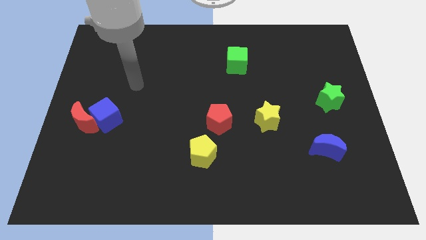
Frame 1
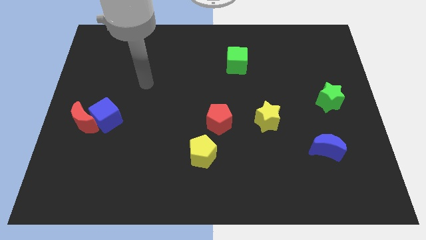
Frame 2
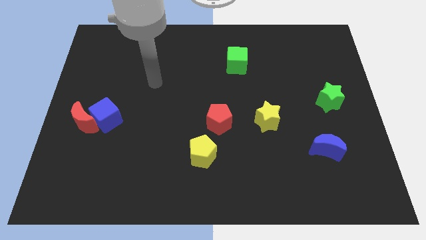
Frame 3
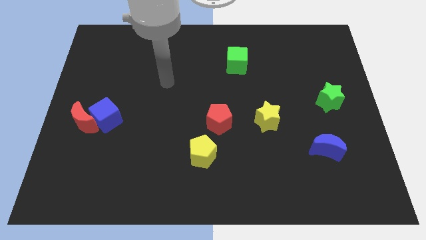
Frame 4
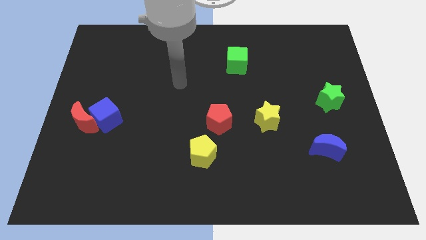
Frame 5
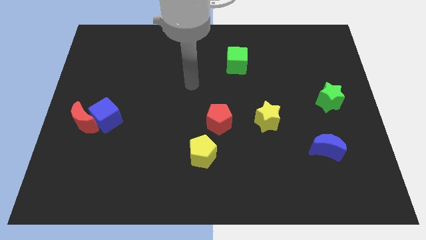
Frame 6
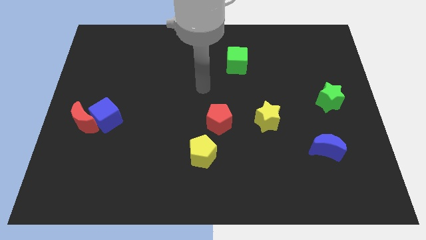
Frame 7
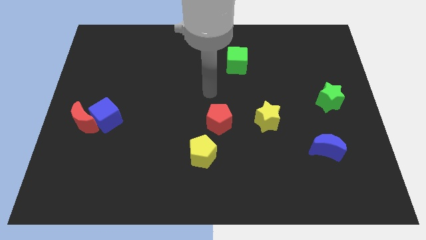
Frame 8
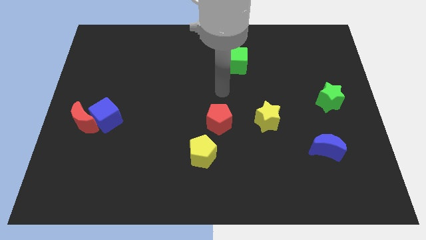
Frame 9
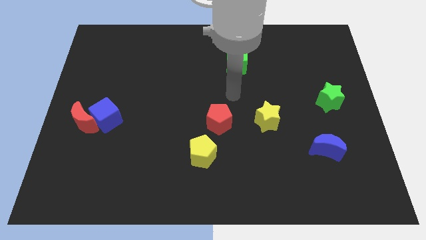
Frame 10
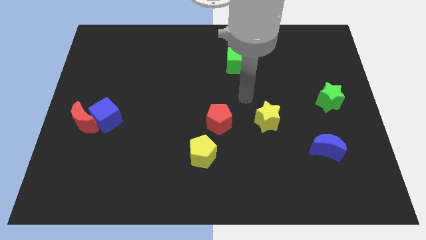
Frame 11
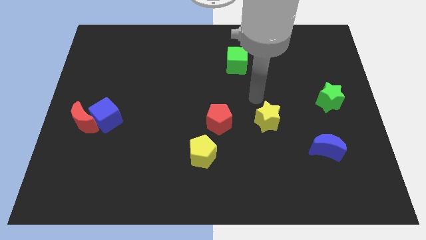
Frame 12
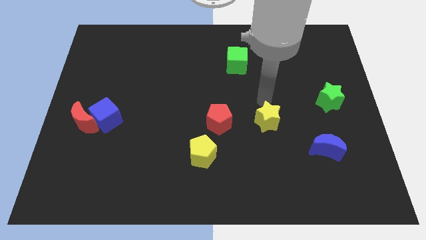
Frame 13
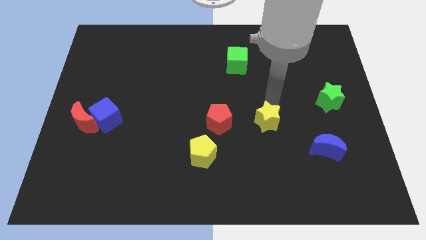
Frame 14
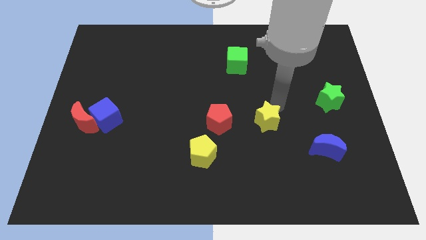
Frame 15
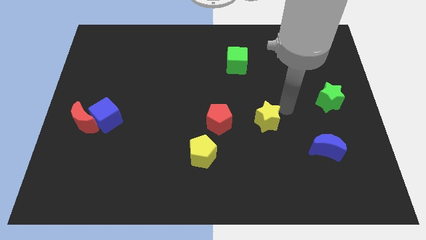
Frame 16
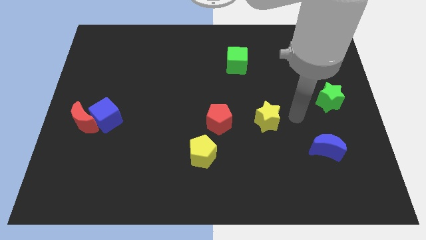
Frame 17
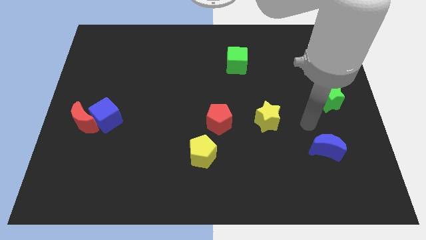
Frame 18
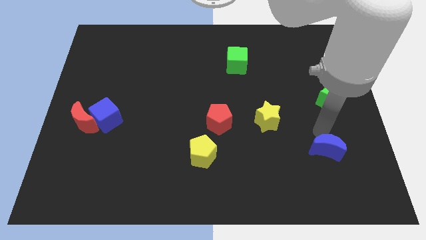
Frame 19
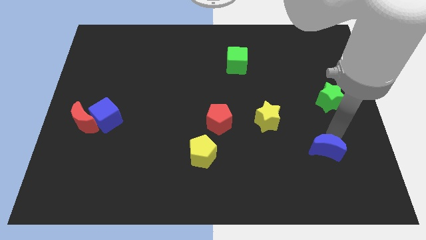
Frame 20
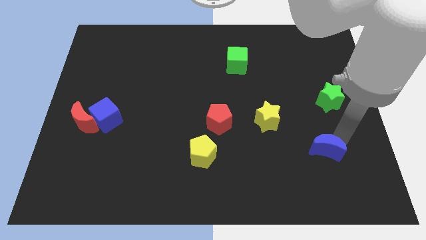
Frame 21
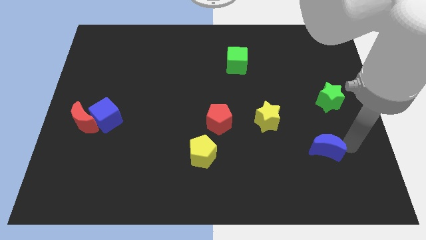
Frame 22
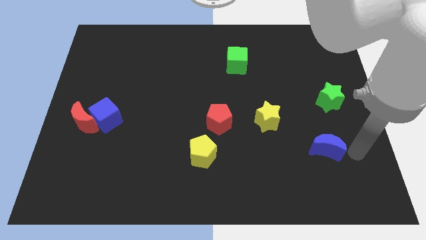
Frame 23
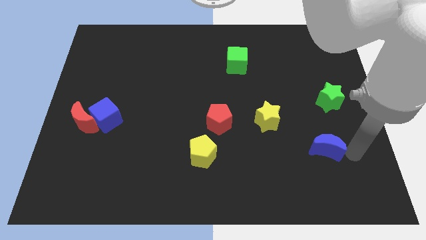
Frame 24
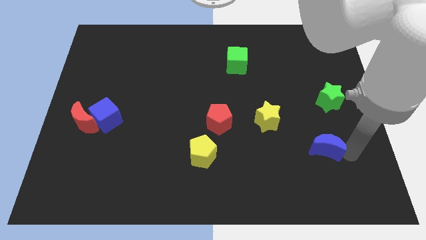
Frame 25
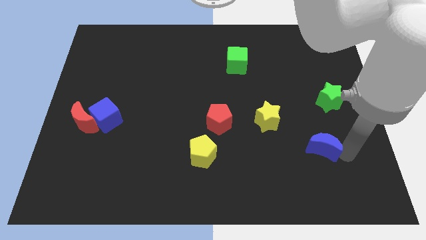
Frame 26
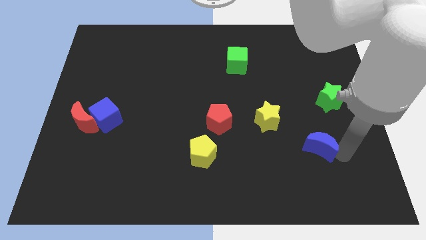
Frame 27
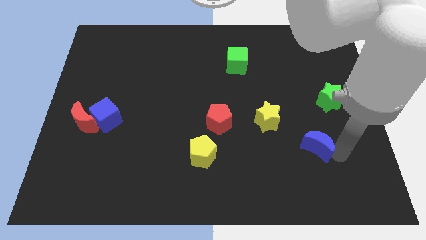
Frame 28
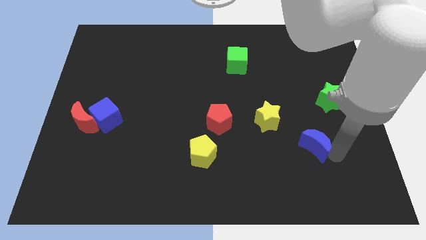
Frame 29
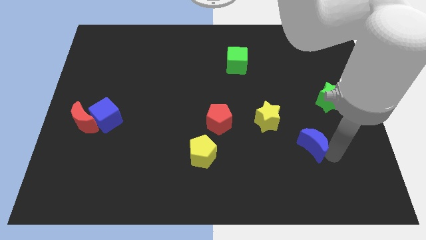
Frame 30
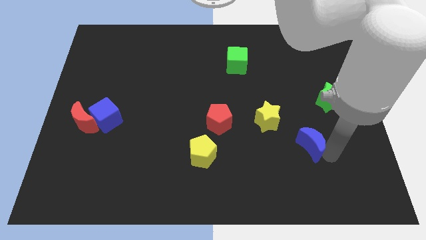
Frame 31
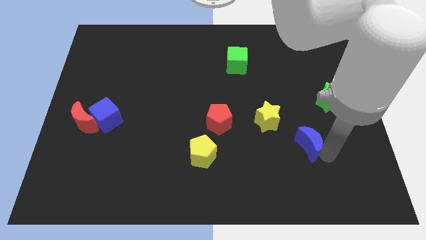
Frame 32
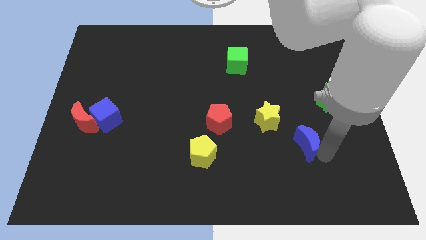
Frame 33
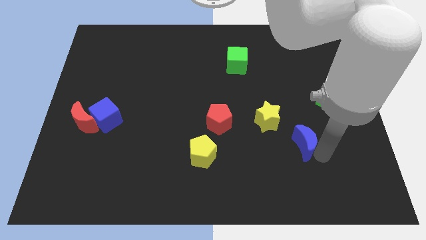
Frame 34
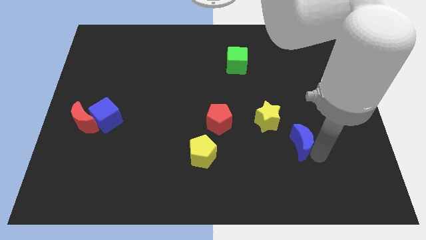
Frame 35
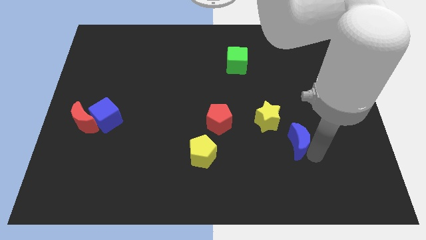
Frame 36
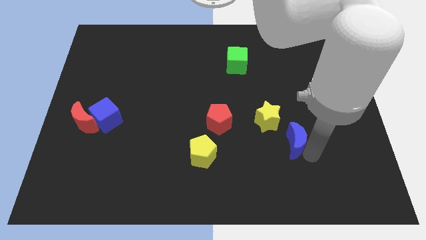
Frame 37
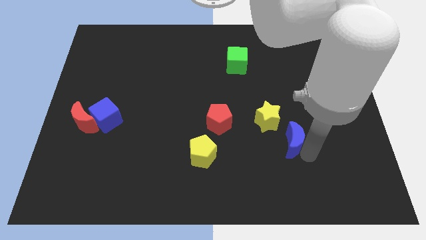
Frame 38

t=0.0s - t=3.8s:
slightly slide the blue moon left

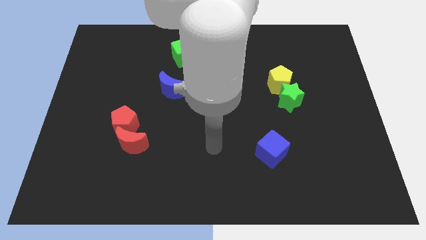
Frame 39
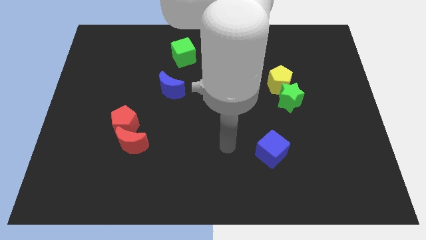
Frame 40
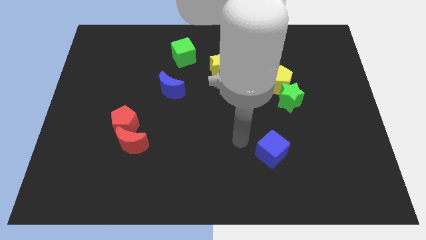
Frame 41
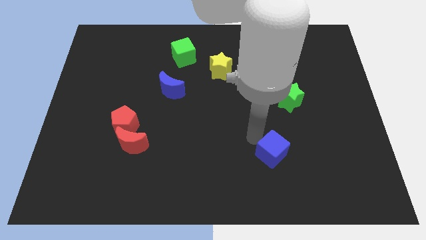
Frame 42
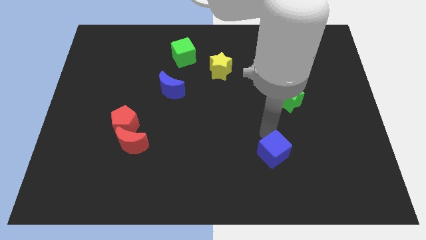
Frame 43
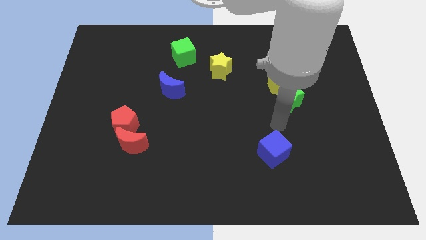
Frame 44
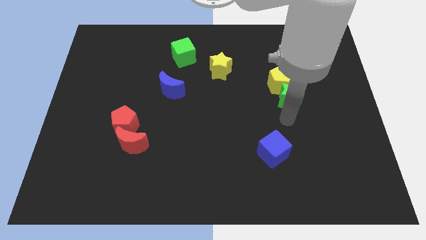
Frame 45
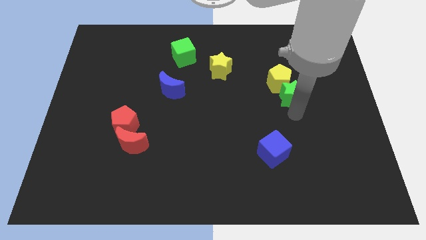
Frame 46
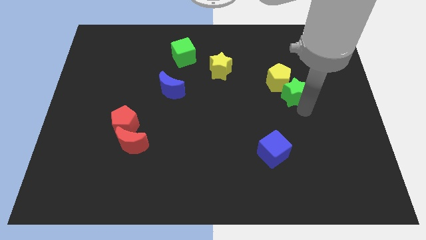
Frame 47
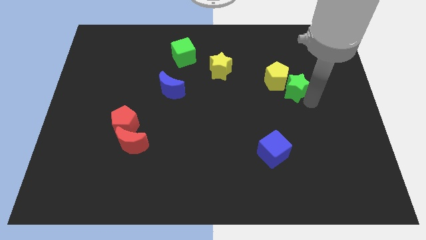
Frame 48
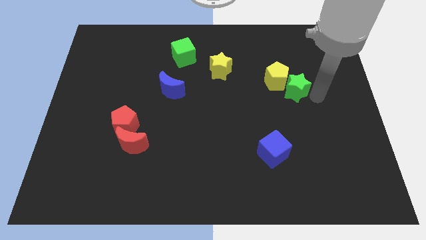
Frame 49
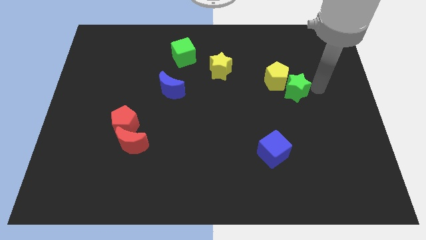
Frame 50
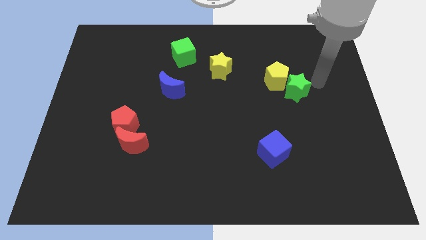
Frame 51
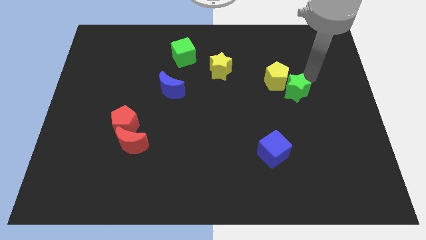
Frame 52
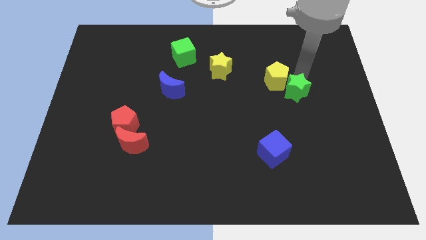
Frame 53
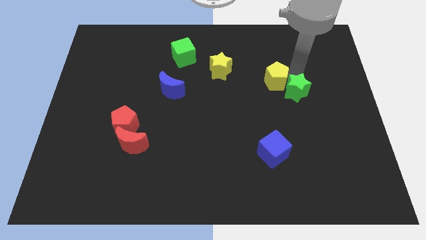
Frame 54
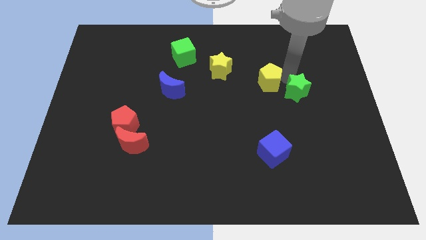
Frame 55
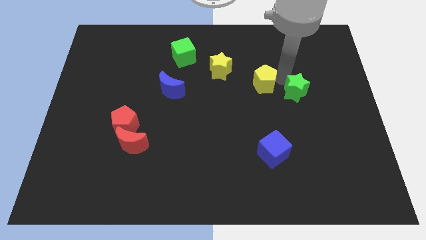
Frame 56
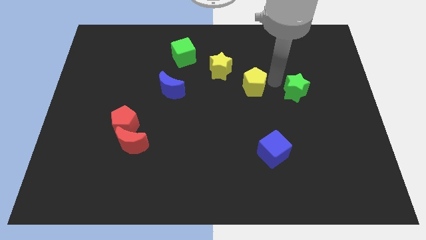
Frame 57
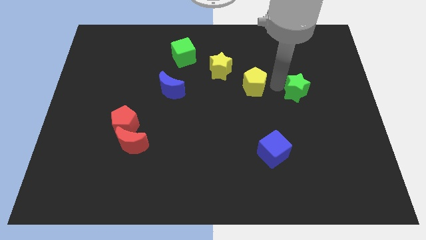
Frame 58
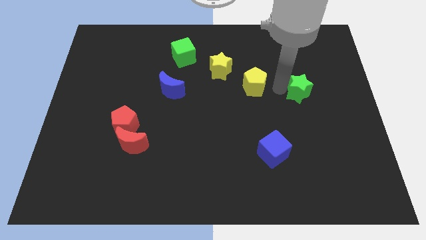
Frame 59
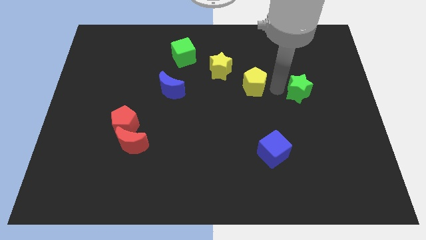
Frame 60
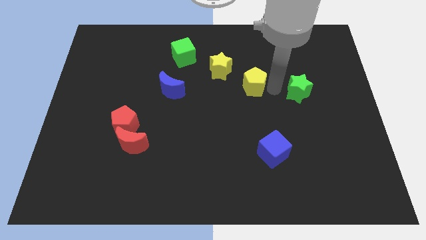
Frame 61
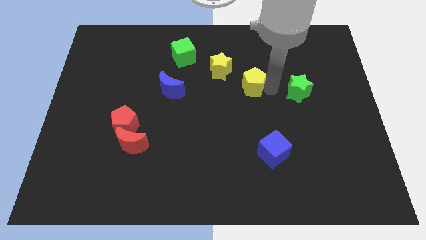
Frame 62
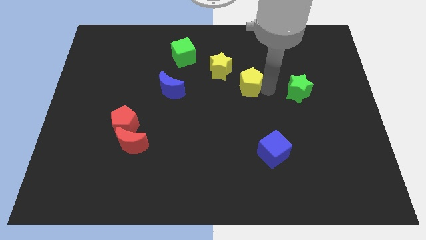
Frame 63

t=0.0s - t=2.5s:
slide the yellow pentagon to the left slightly

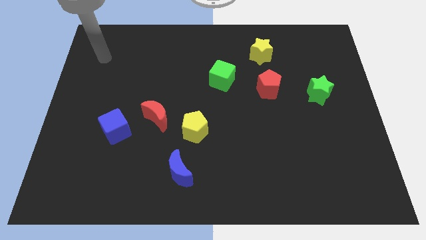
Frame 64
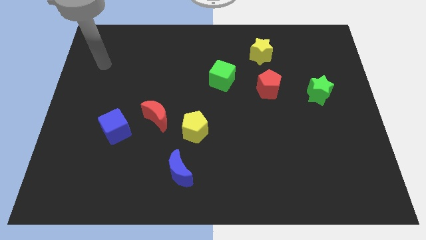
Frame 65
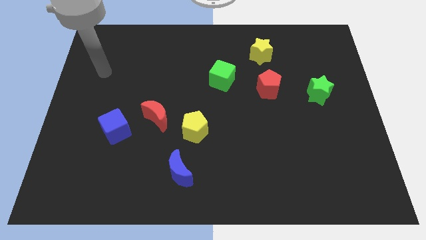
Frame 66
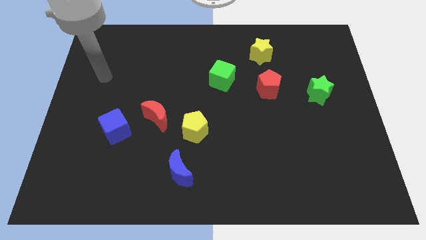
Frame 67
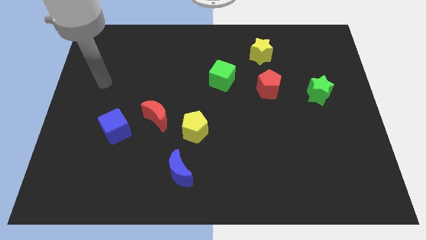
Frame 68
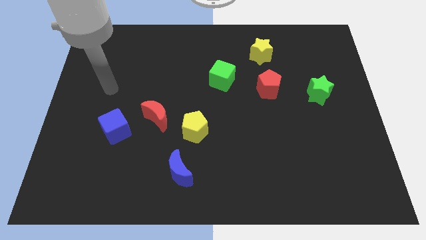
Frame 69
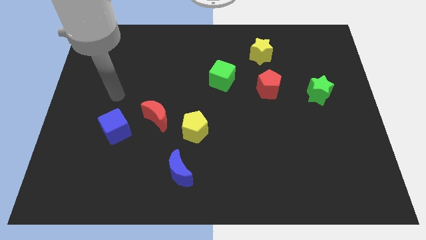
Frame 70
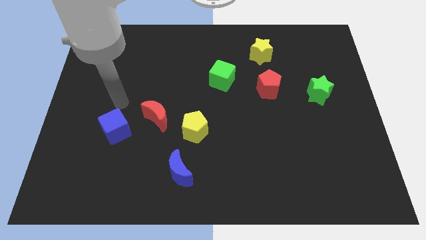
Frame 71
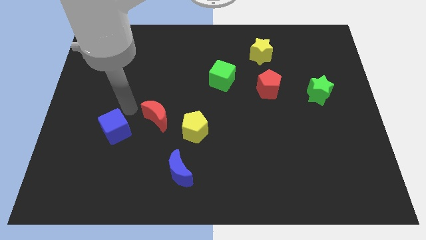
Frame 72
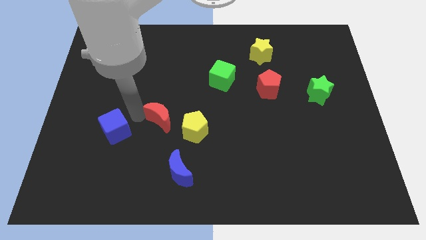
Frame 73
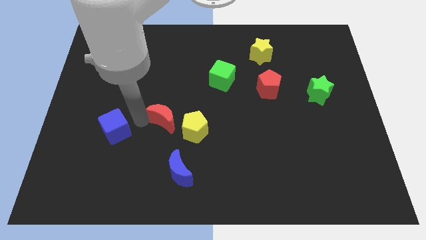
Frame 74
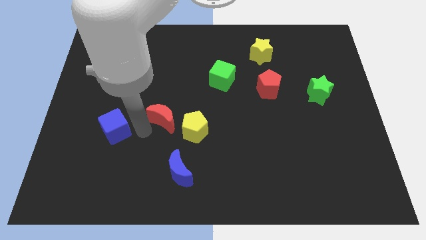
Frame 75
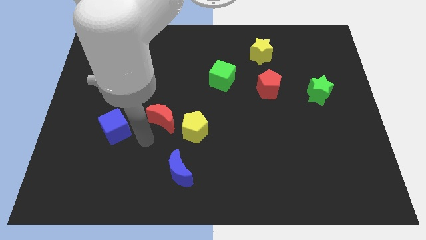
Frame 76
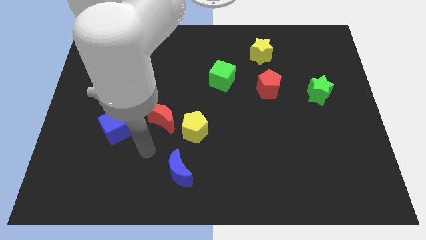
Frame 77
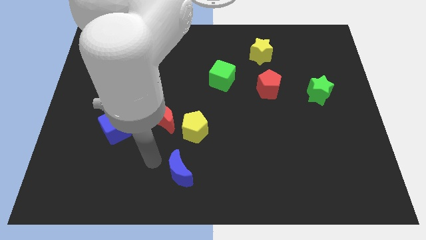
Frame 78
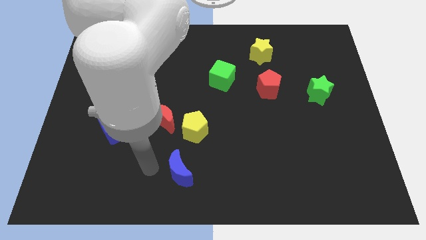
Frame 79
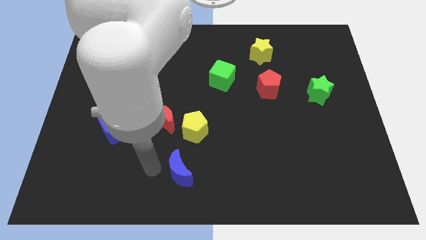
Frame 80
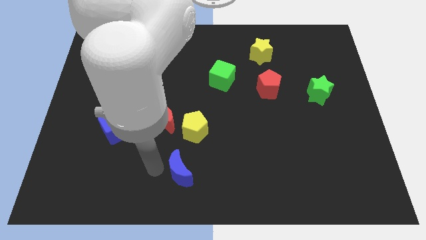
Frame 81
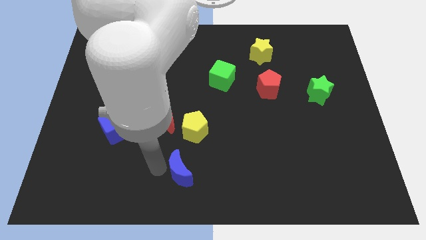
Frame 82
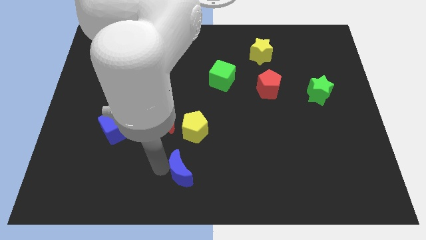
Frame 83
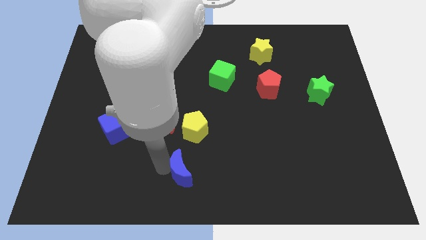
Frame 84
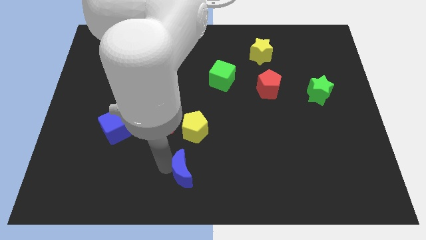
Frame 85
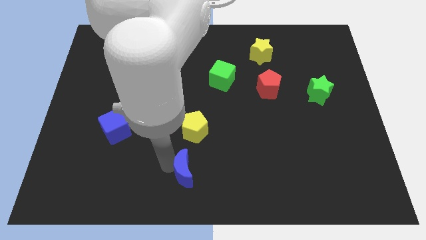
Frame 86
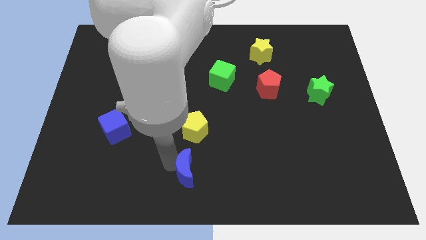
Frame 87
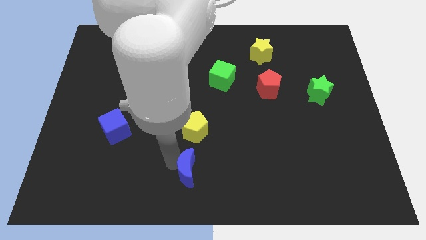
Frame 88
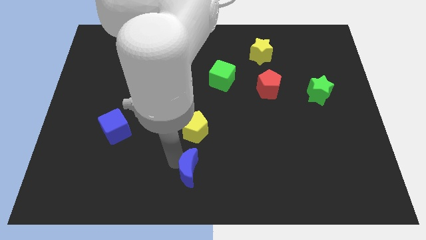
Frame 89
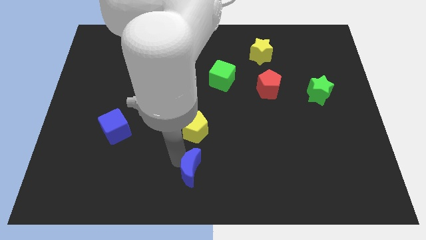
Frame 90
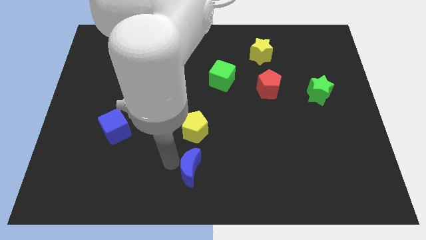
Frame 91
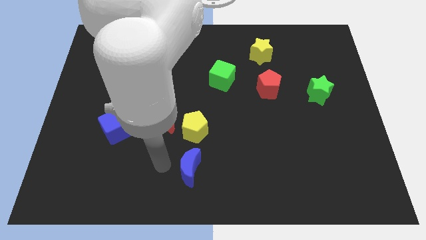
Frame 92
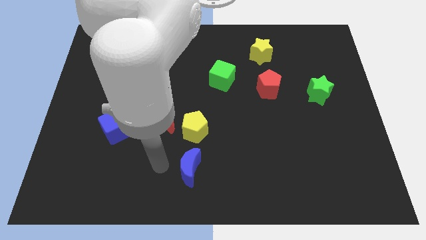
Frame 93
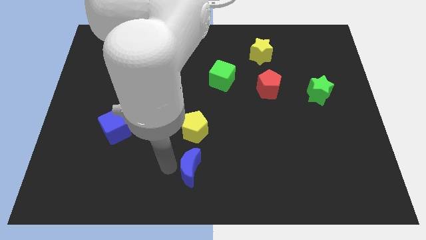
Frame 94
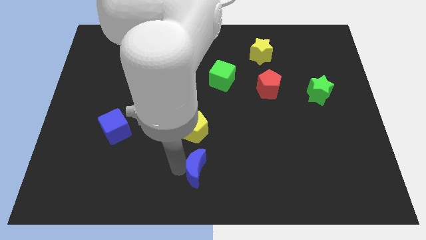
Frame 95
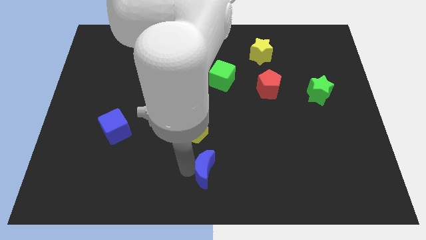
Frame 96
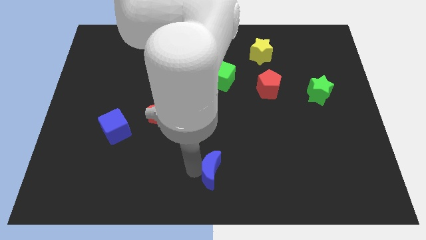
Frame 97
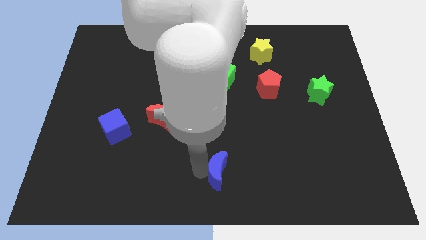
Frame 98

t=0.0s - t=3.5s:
push the blue moon right somewhat
